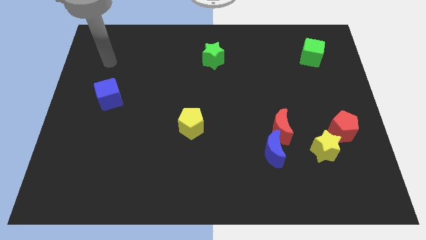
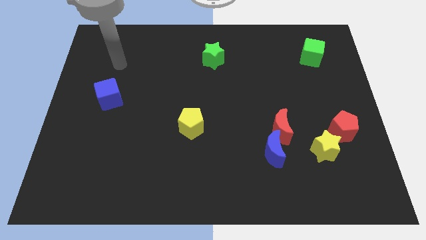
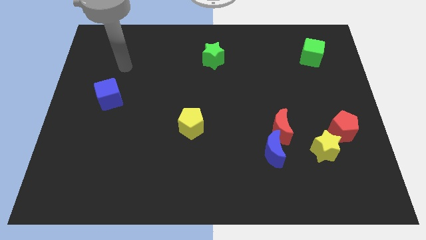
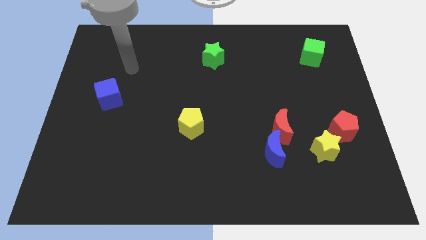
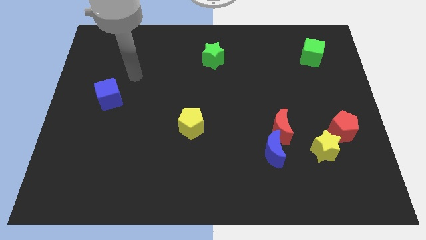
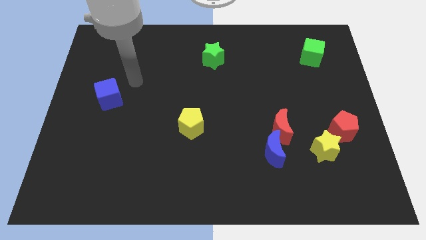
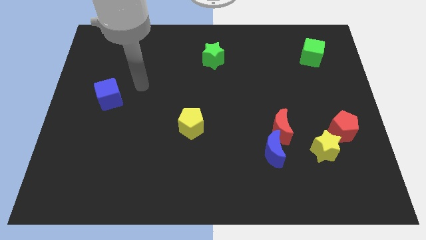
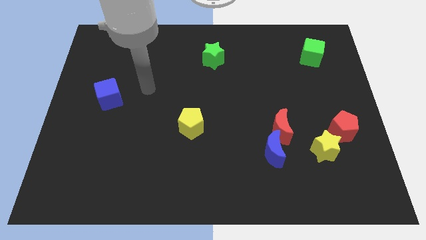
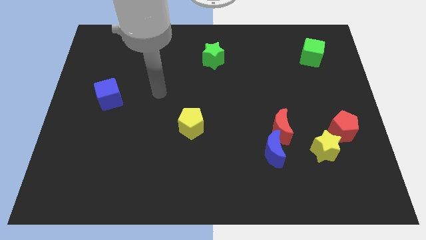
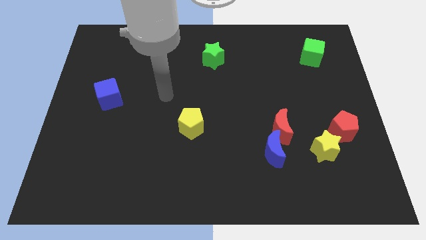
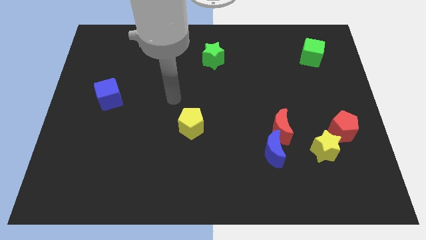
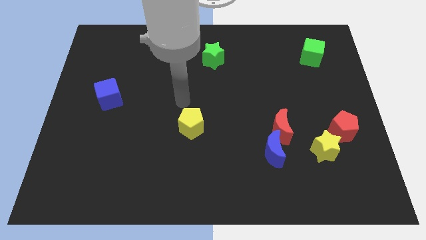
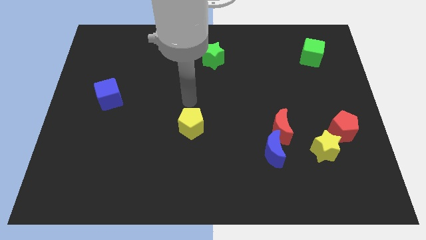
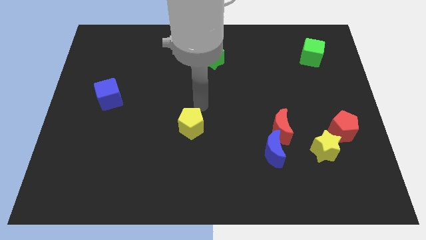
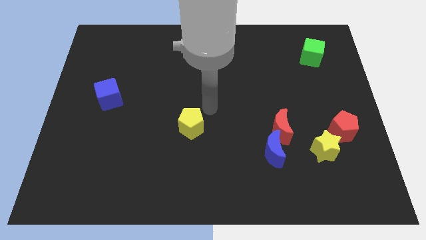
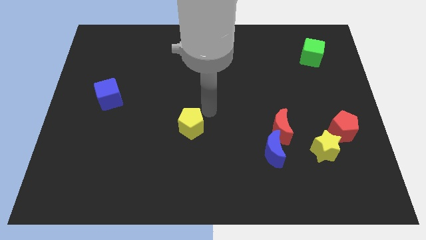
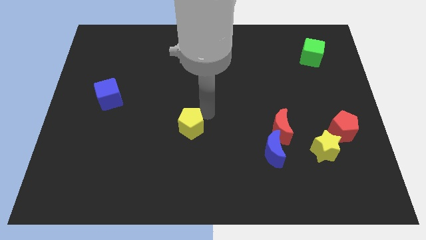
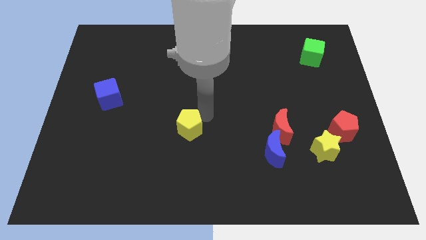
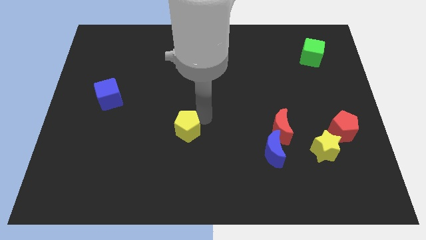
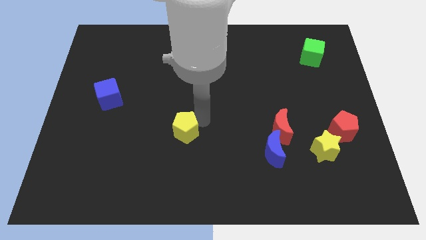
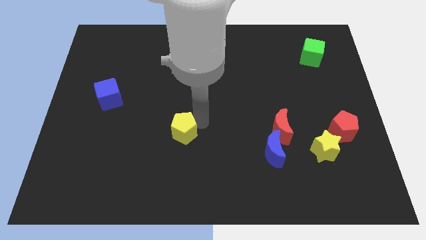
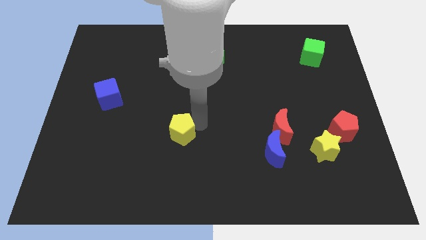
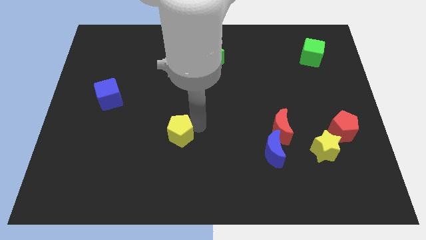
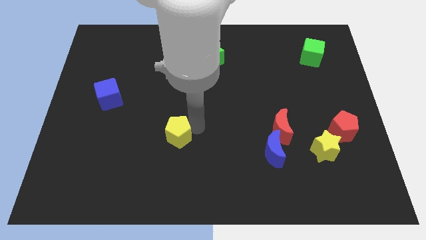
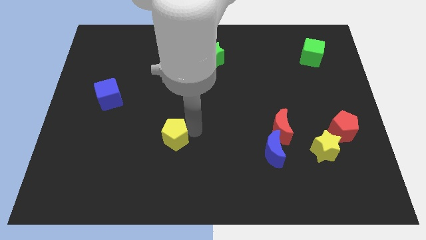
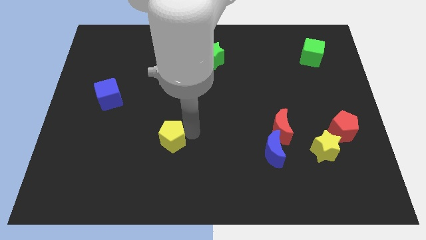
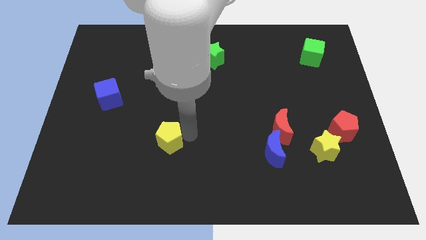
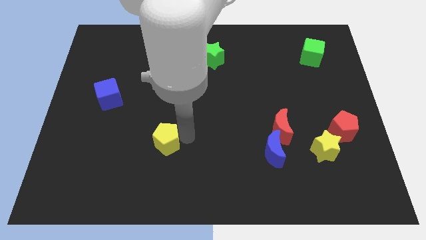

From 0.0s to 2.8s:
move the yellow pentagon diagonally downwards and to the left a little

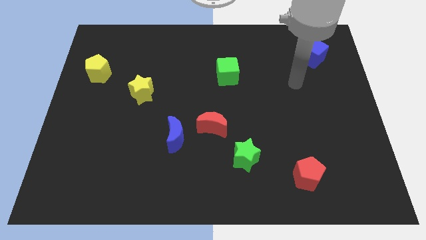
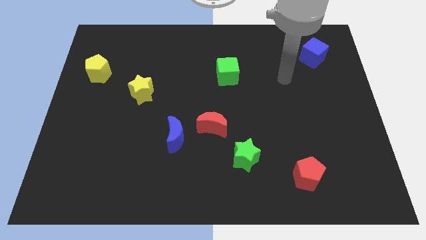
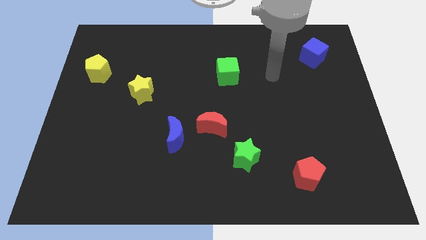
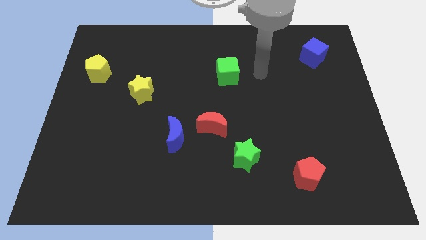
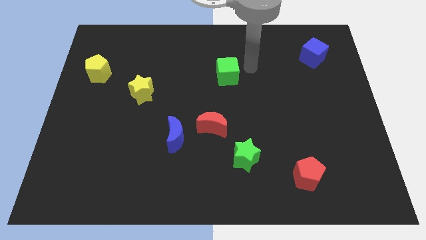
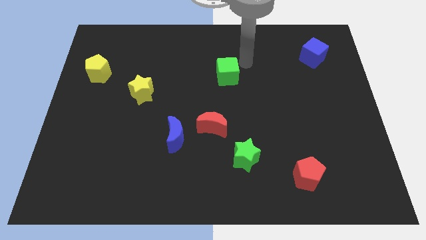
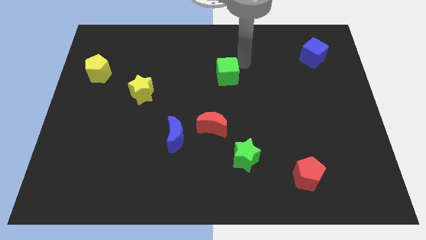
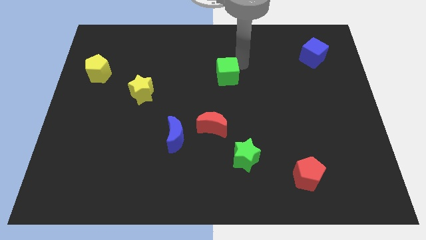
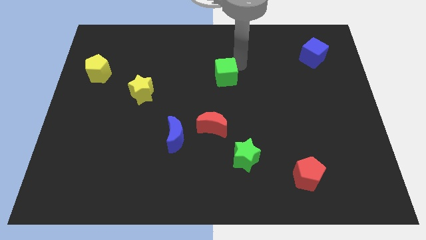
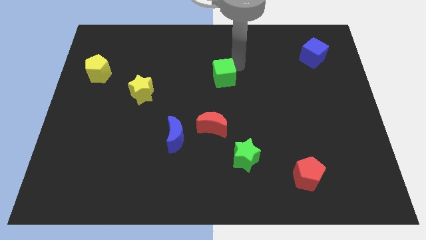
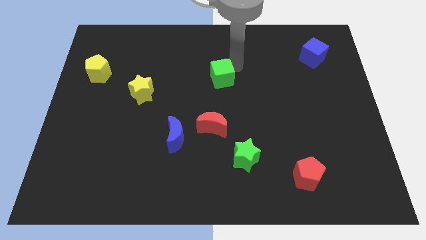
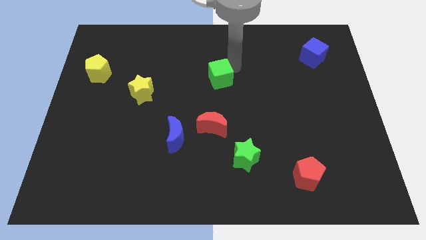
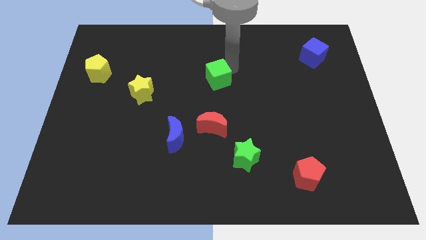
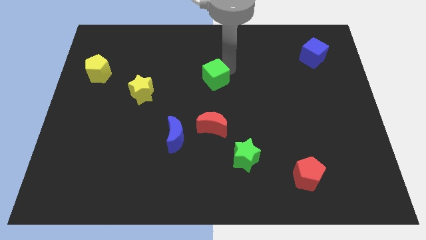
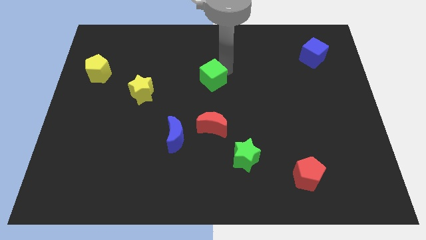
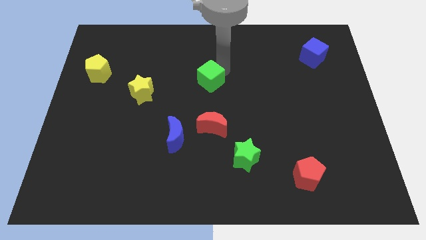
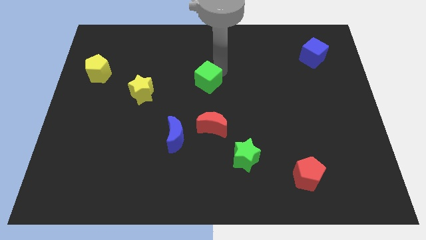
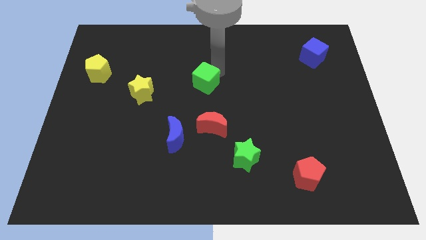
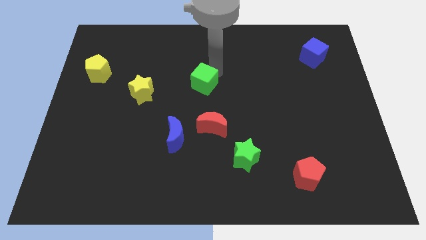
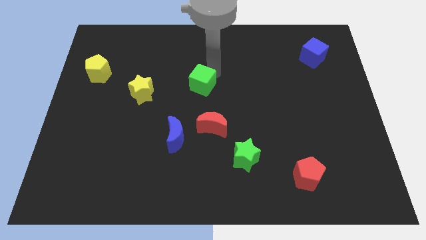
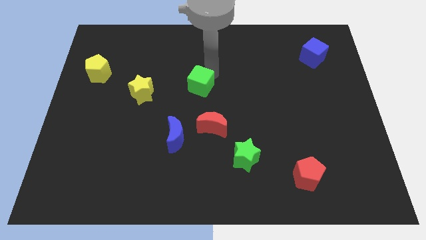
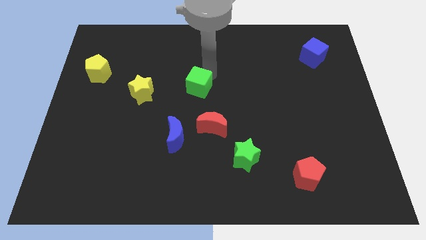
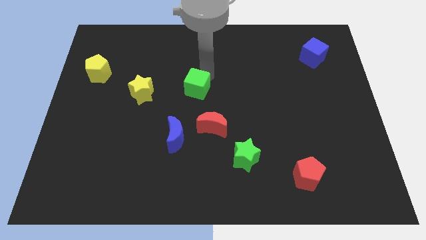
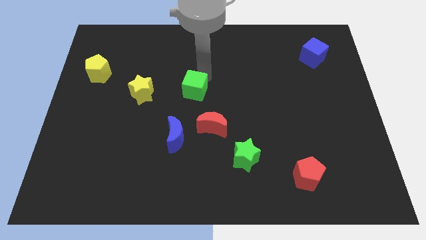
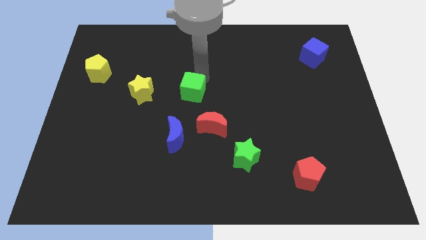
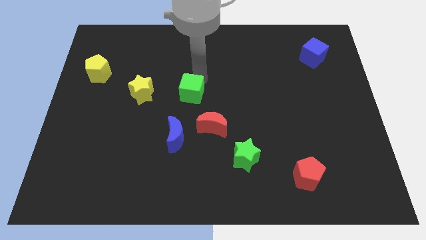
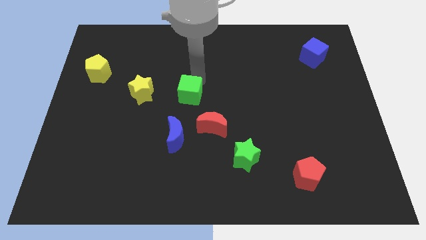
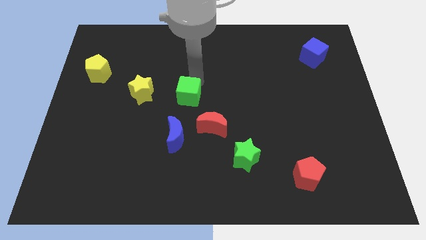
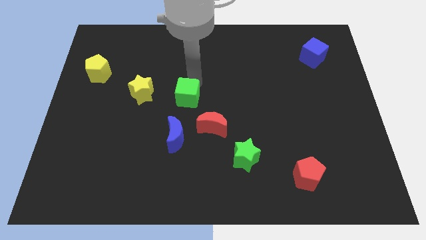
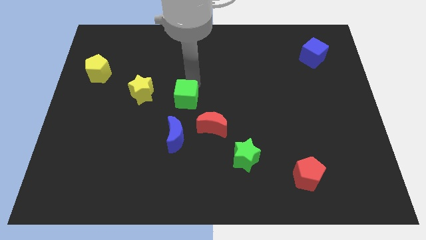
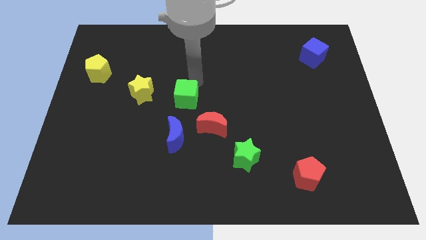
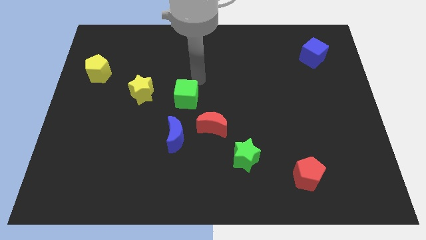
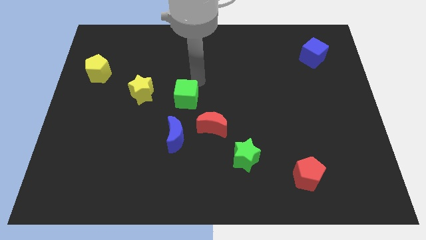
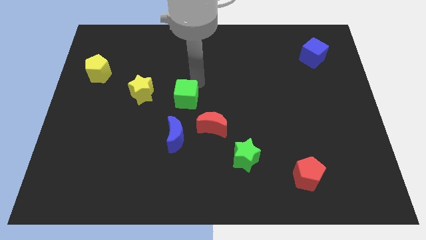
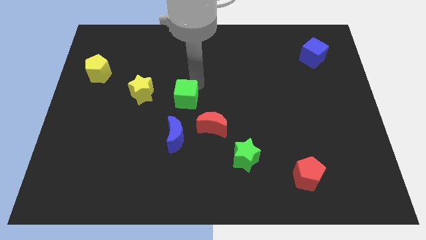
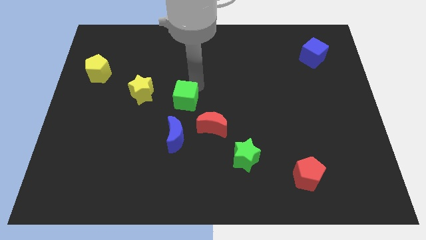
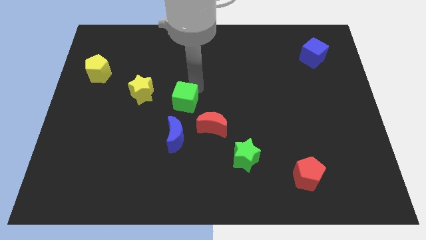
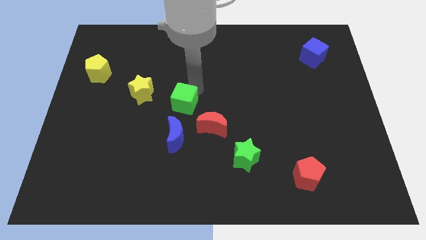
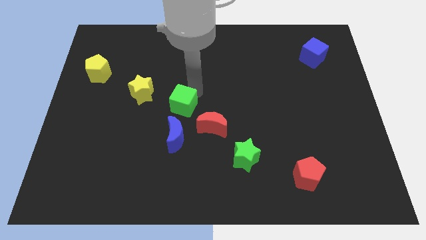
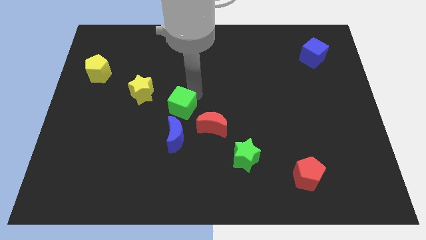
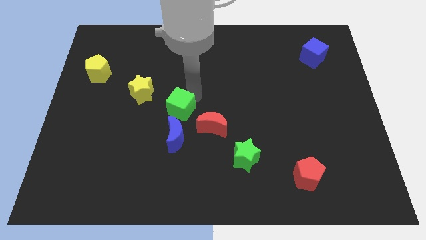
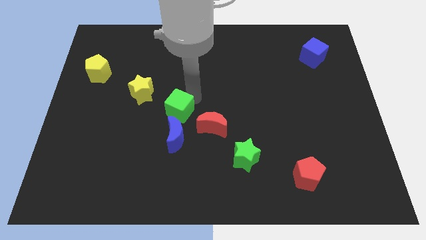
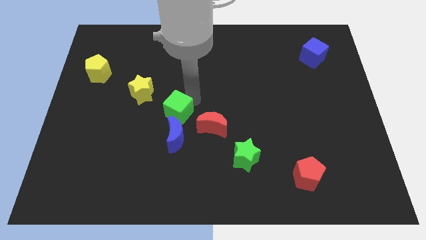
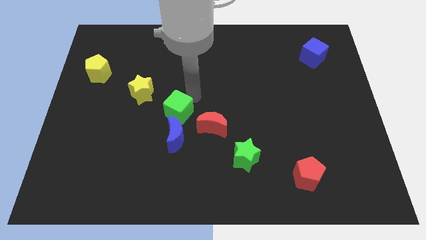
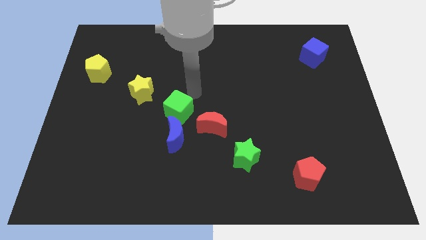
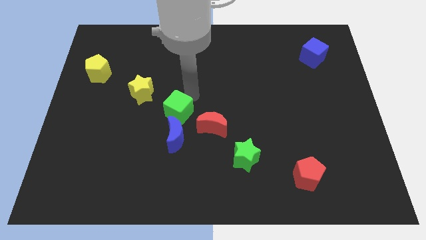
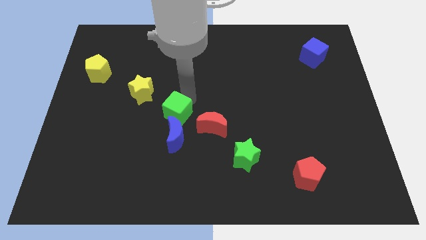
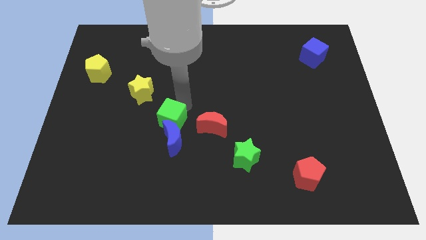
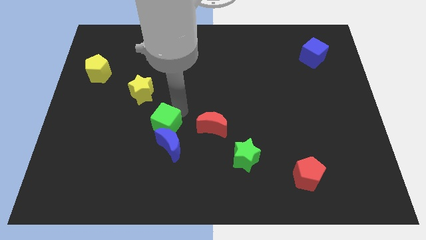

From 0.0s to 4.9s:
slide the green cube downwards and to the left
